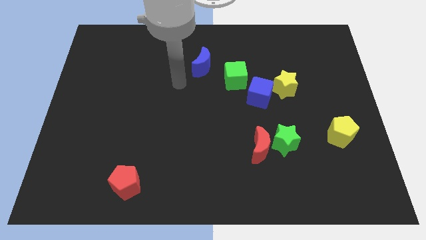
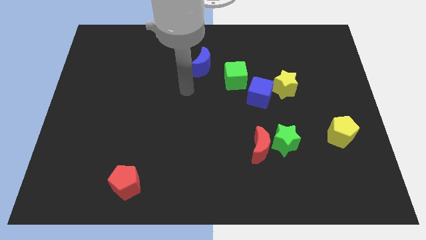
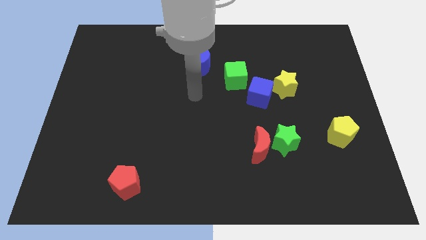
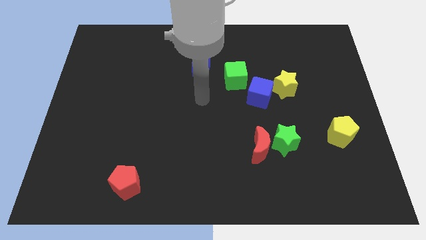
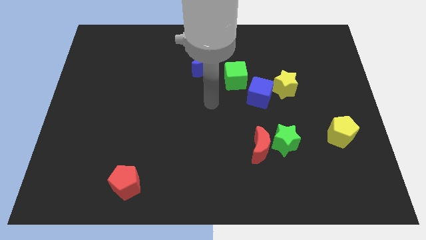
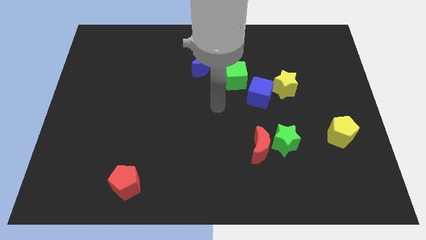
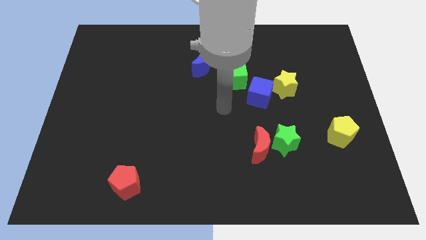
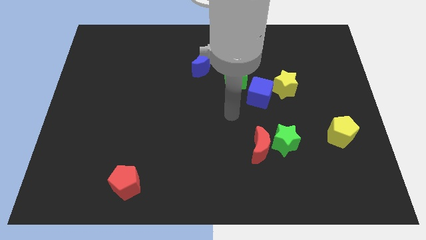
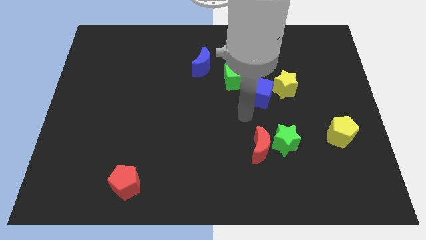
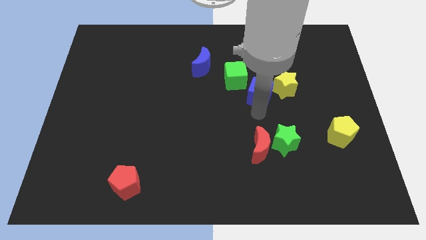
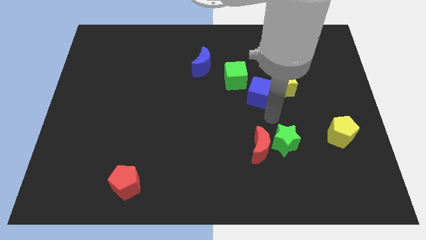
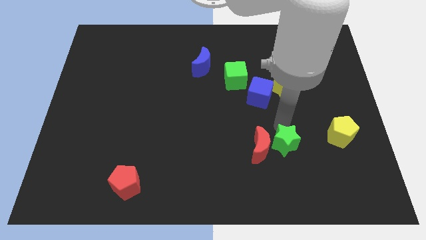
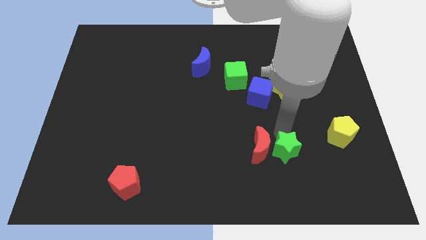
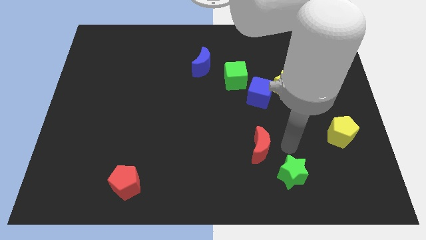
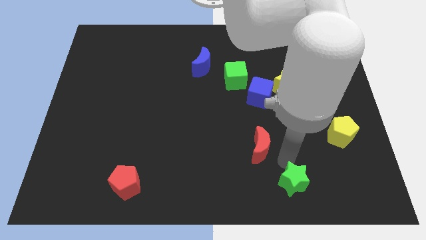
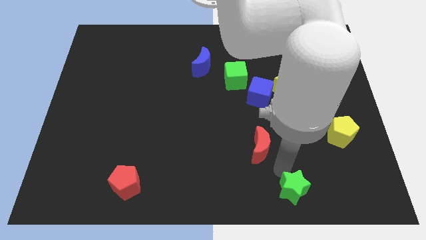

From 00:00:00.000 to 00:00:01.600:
move the red moon away from the green star

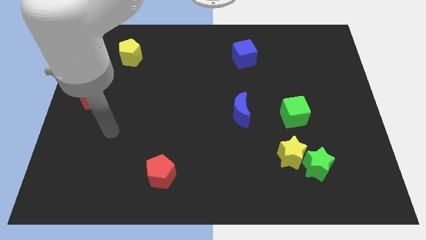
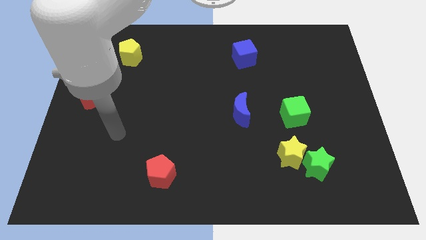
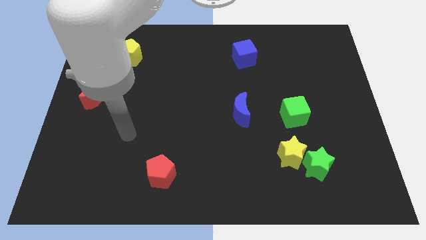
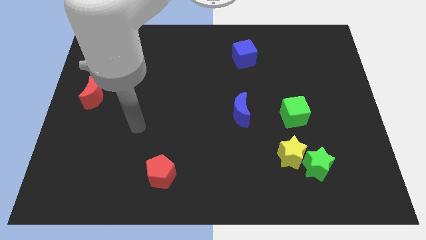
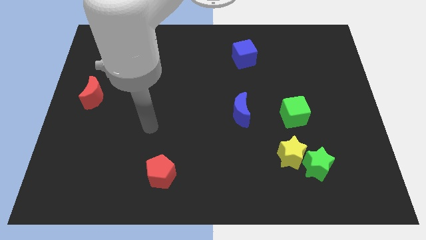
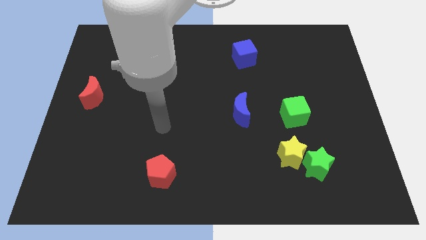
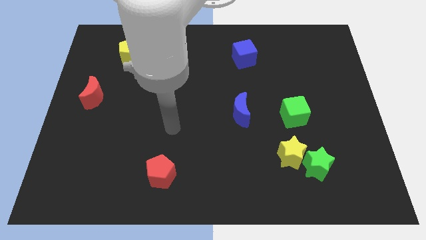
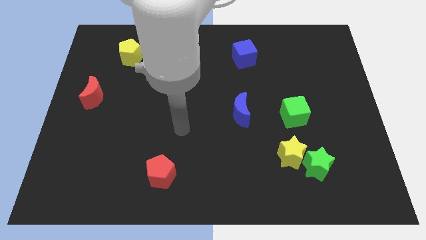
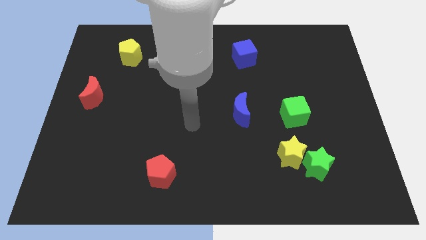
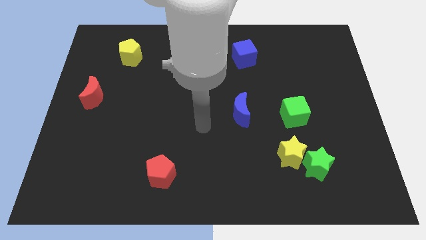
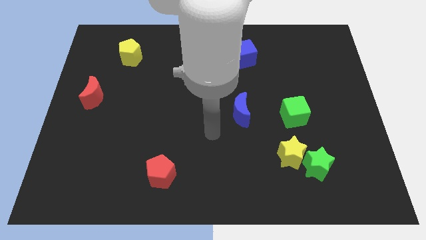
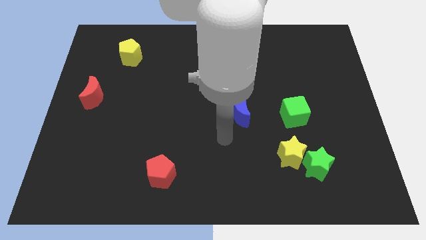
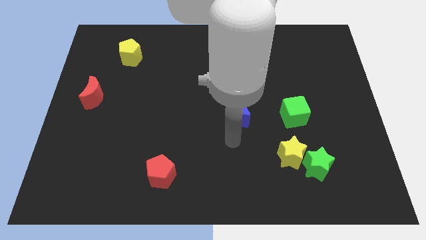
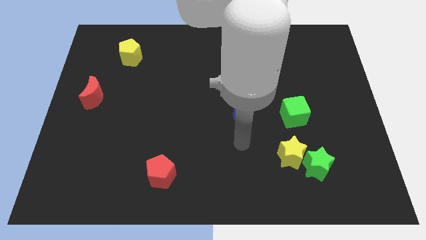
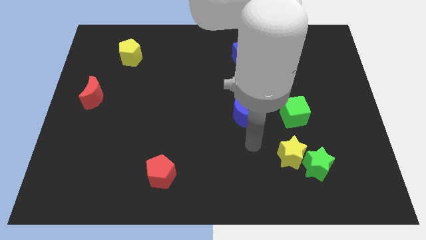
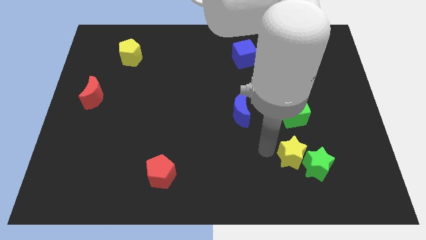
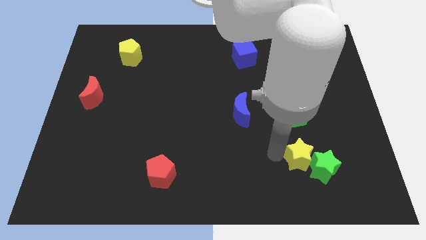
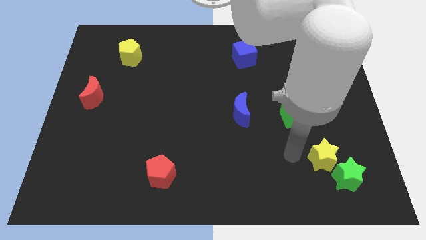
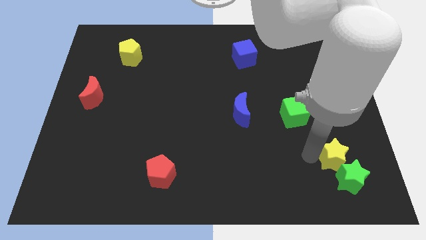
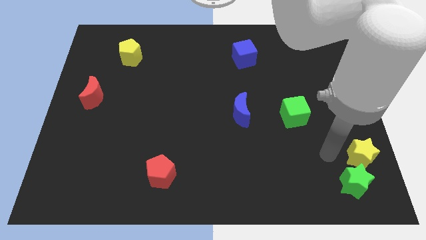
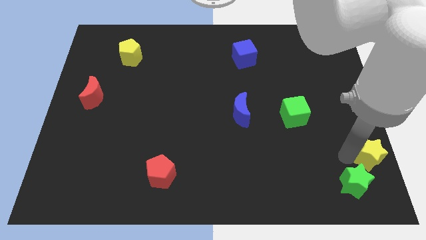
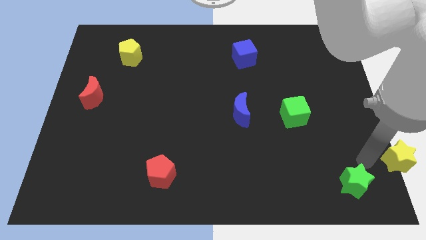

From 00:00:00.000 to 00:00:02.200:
move the green star away from the yellow star

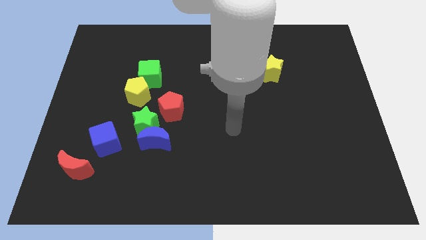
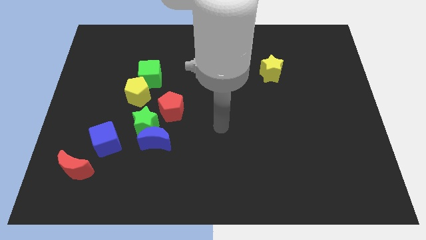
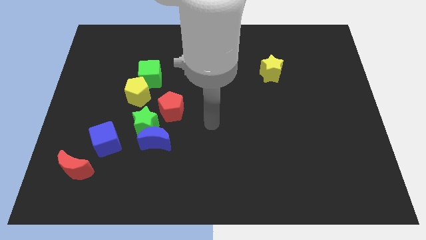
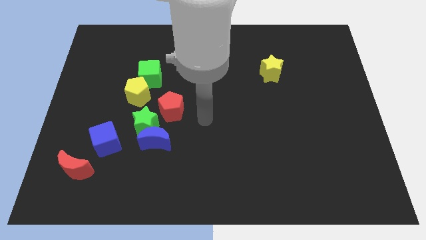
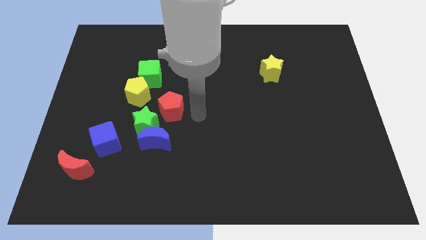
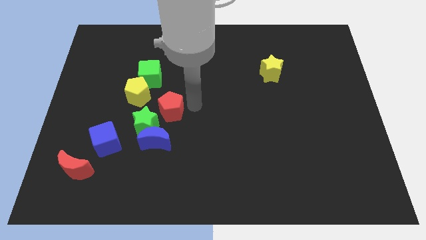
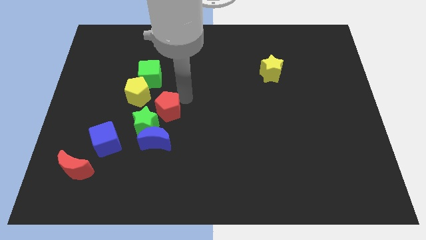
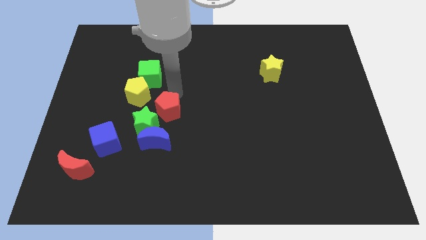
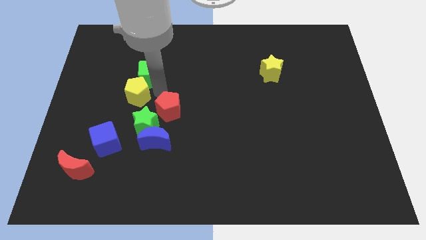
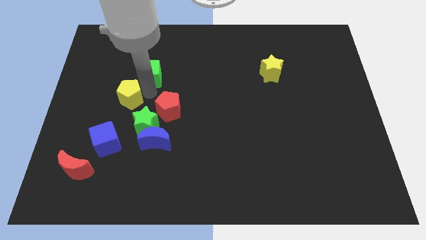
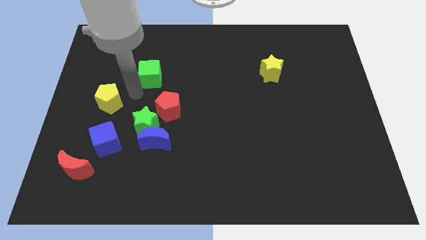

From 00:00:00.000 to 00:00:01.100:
pull the green cube apart from the yellow pentagon

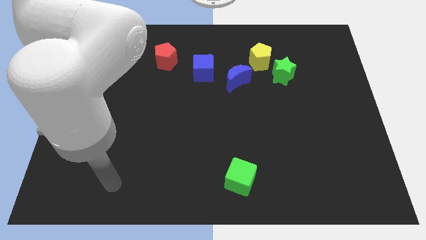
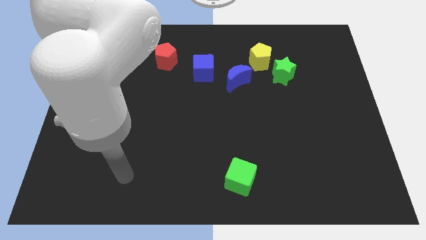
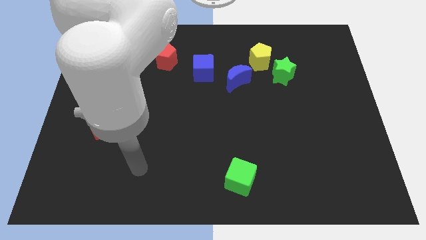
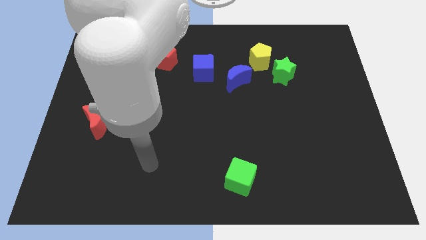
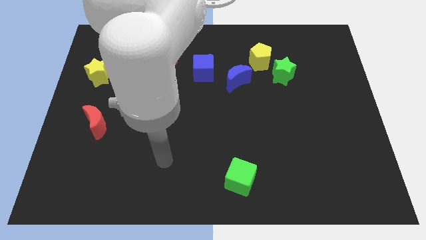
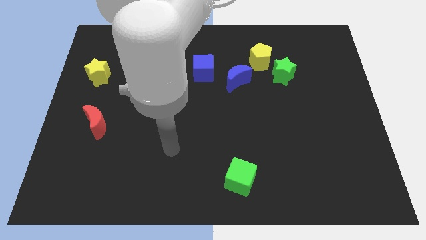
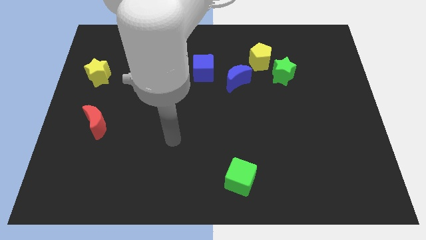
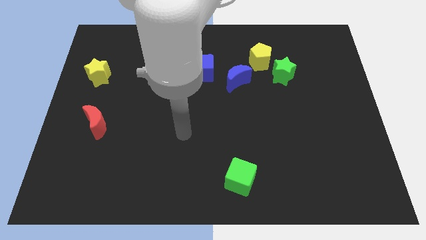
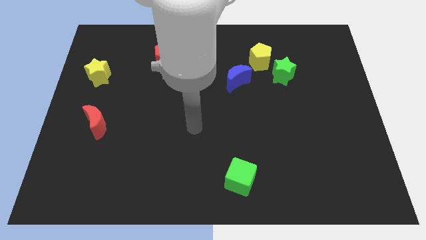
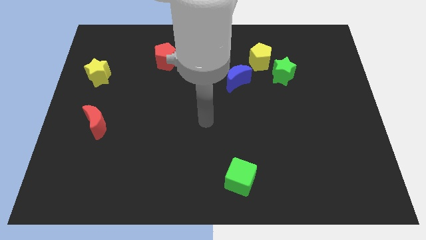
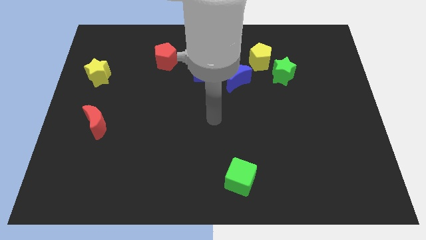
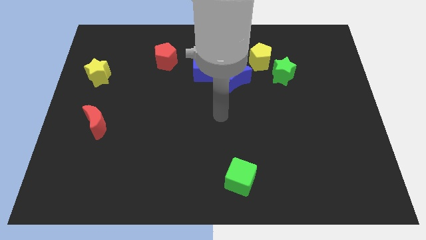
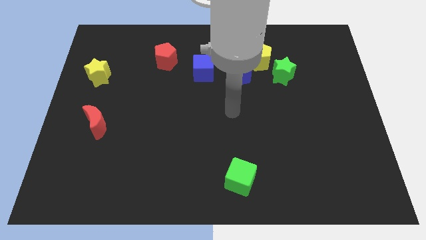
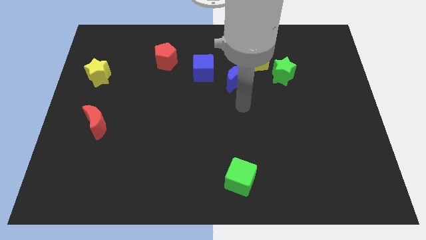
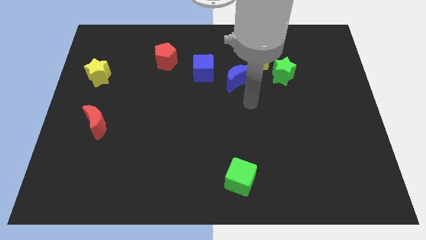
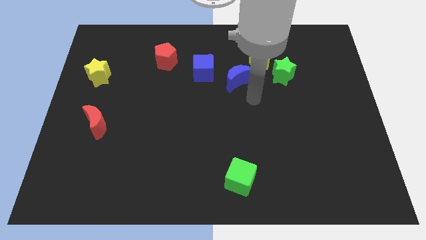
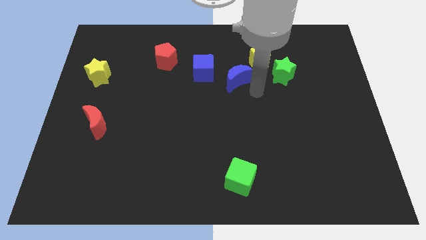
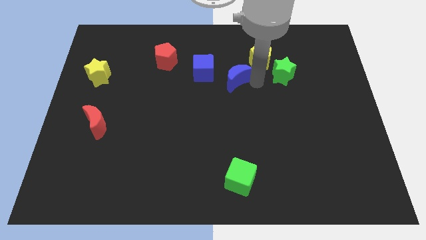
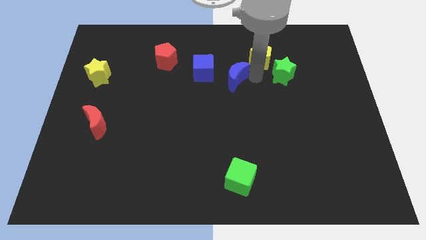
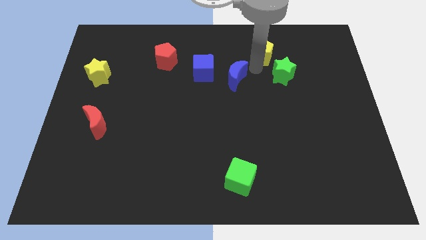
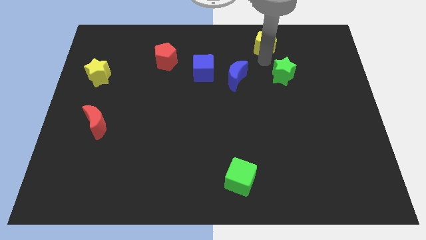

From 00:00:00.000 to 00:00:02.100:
pull the green star apart from the yellow pentagon

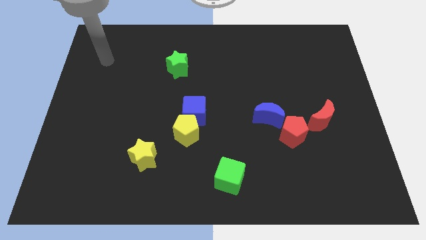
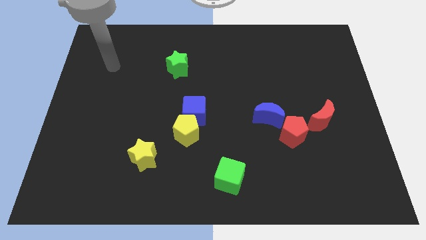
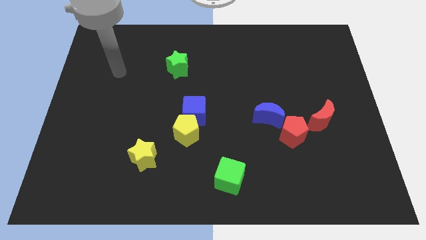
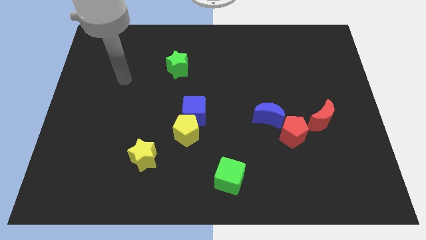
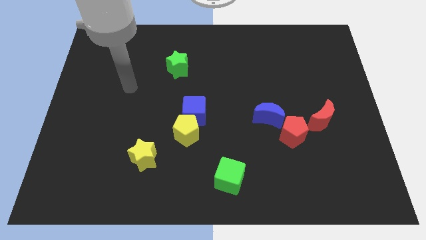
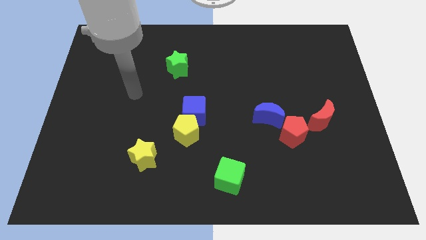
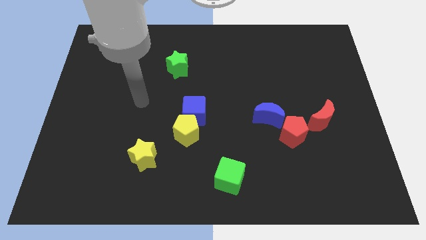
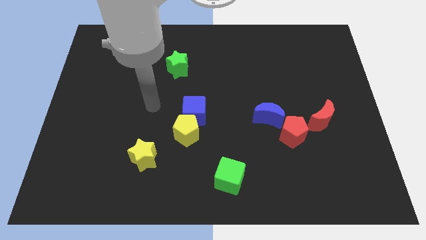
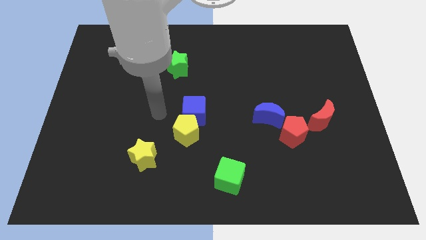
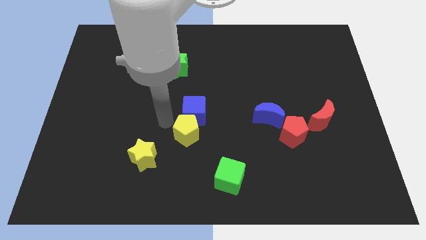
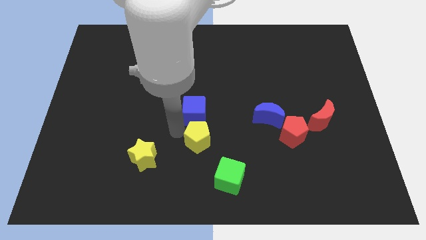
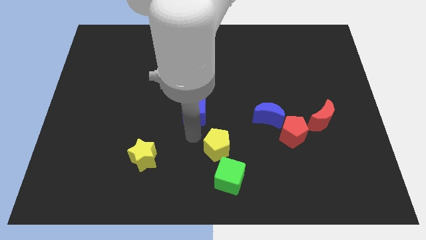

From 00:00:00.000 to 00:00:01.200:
pull the blue cube apart from the yellow pentagon

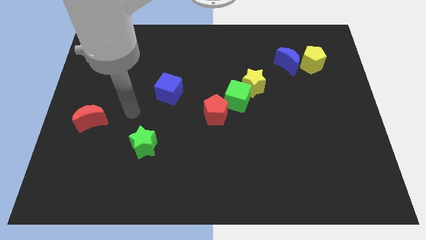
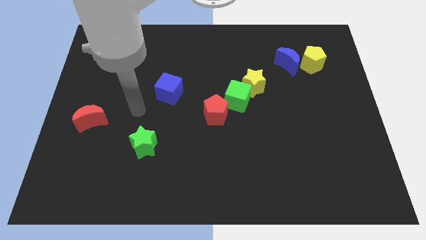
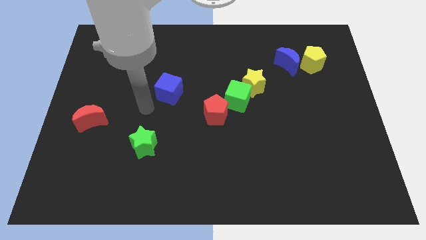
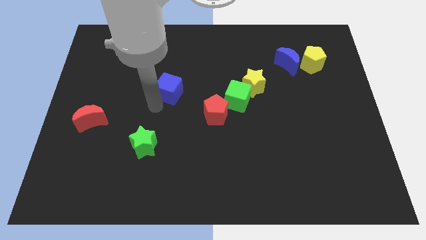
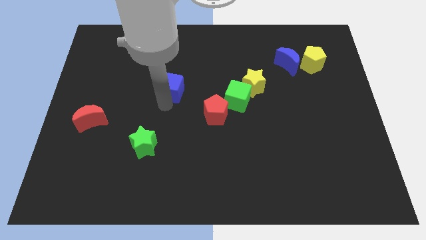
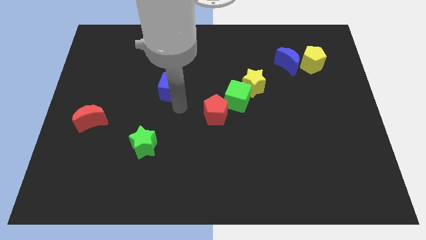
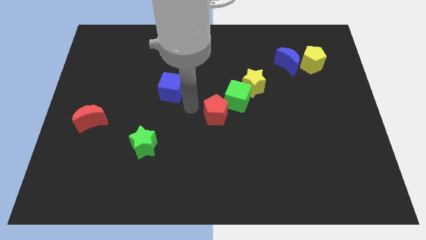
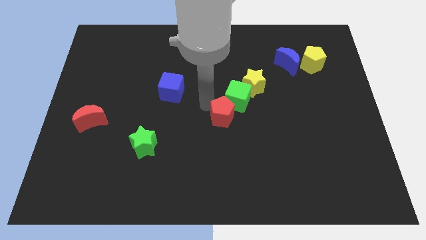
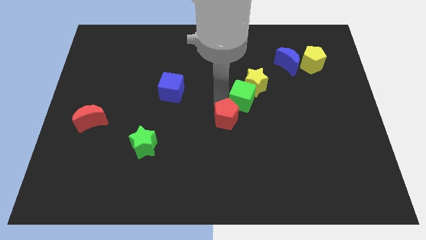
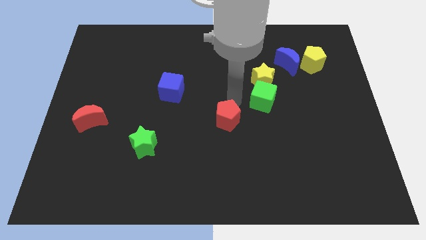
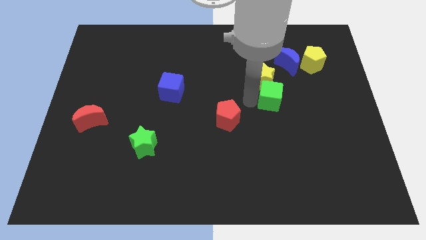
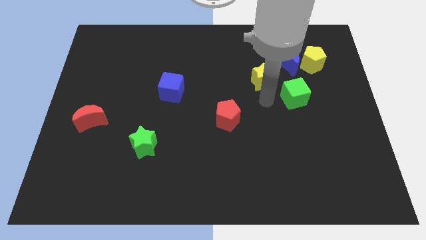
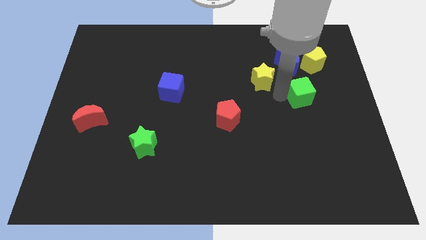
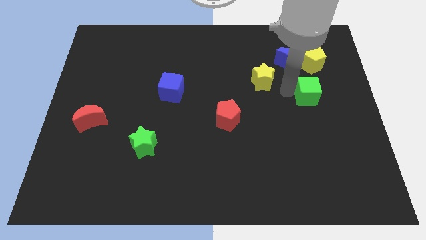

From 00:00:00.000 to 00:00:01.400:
move the yellow star away from the green cube
